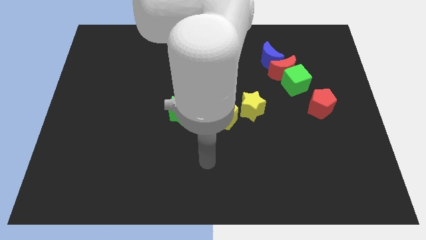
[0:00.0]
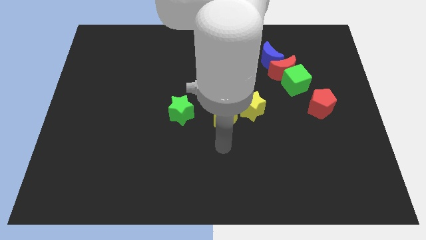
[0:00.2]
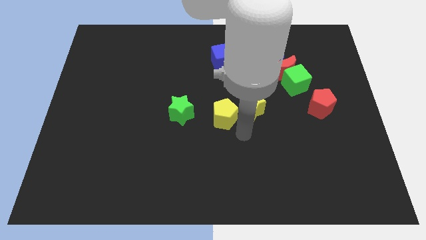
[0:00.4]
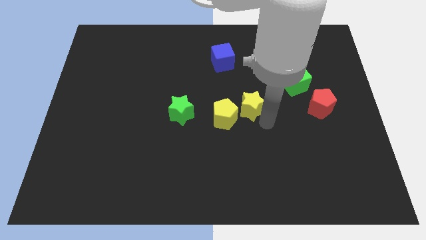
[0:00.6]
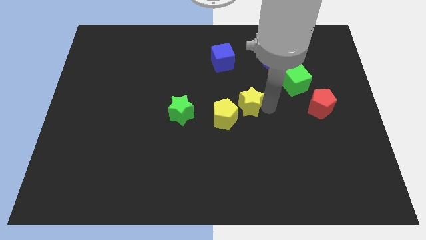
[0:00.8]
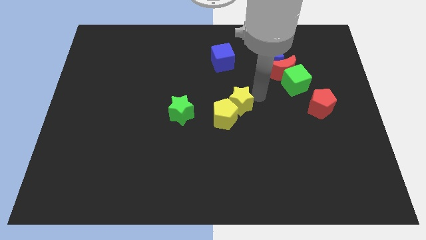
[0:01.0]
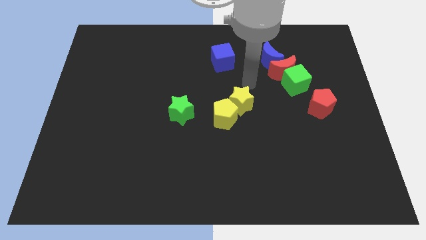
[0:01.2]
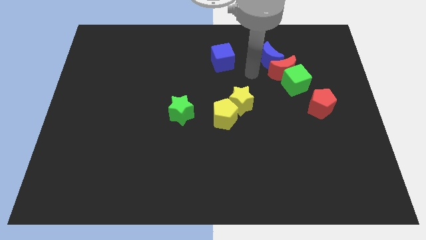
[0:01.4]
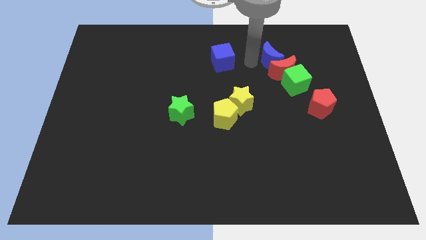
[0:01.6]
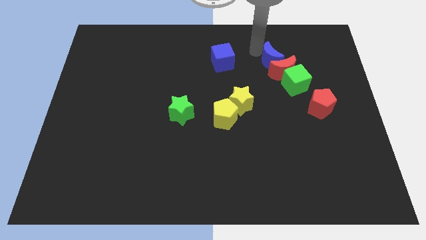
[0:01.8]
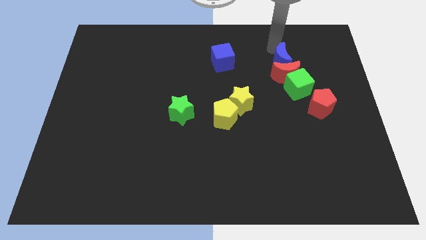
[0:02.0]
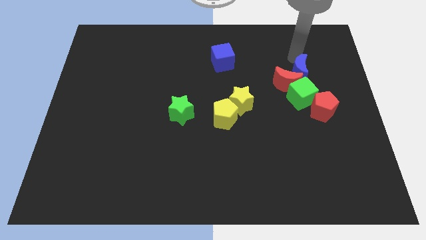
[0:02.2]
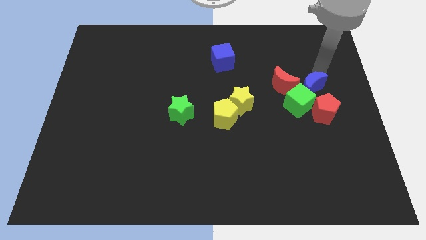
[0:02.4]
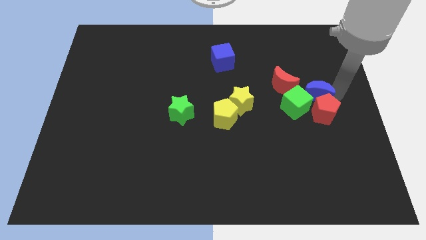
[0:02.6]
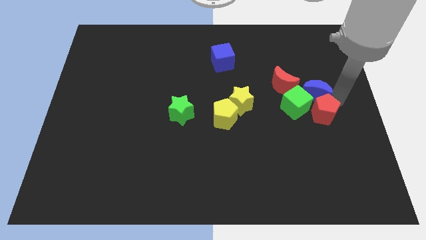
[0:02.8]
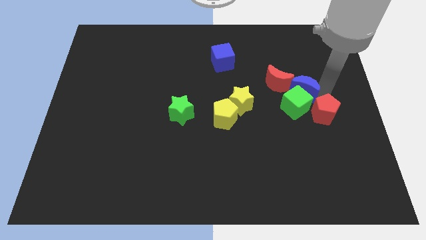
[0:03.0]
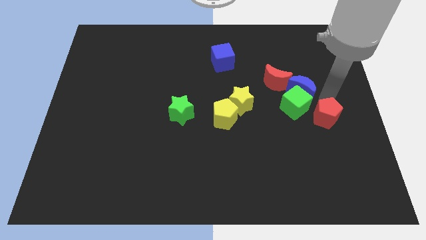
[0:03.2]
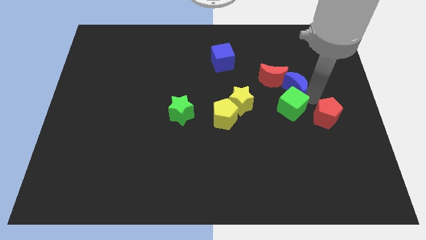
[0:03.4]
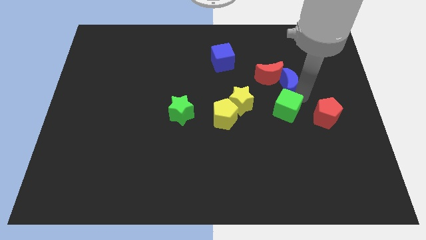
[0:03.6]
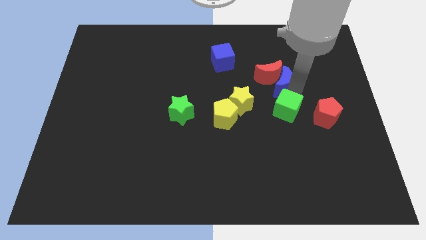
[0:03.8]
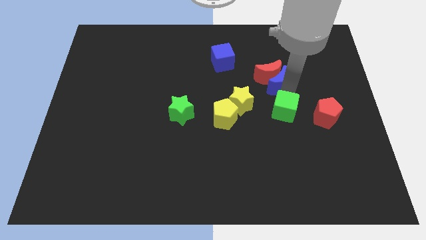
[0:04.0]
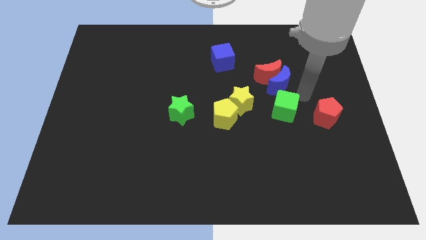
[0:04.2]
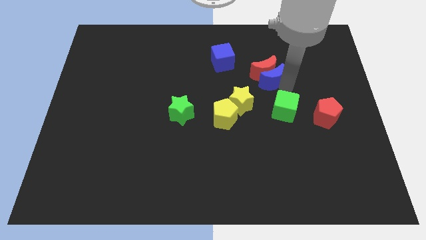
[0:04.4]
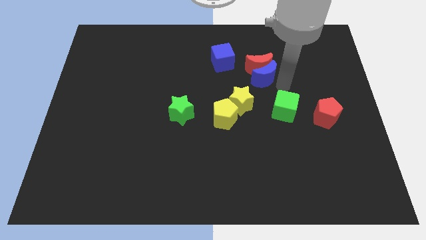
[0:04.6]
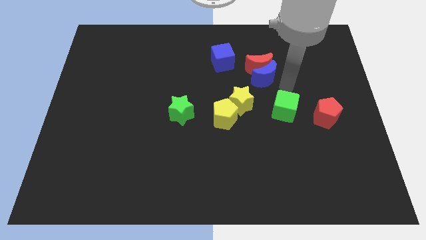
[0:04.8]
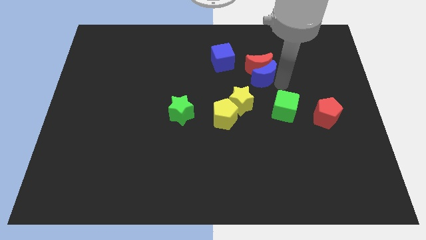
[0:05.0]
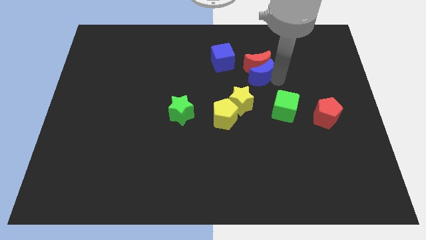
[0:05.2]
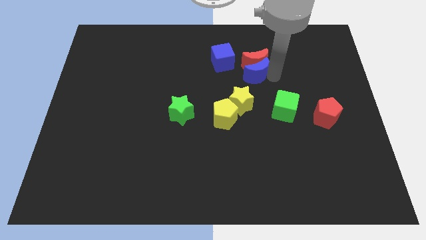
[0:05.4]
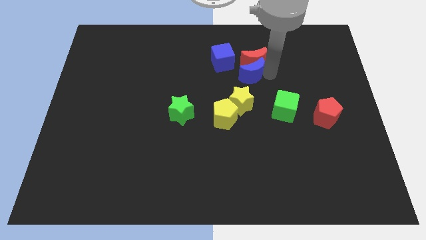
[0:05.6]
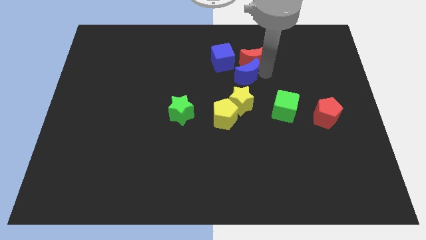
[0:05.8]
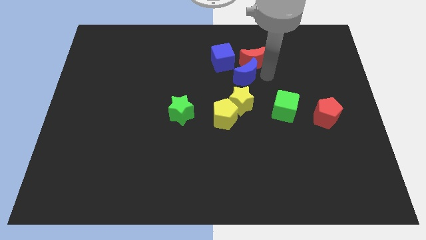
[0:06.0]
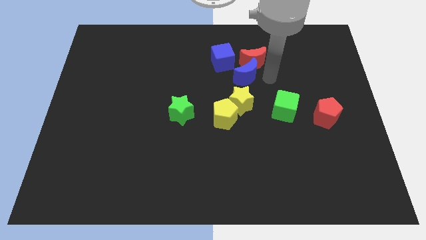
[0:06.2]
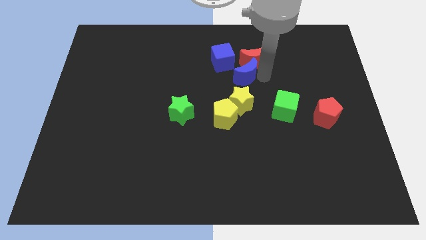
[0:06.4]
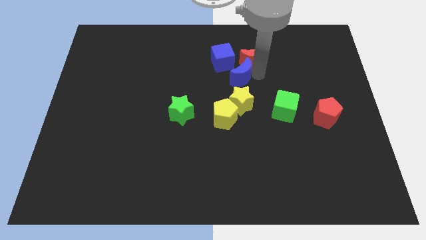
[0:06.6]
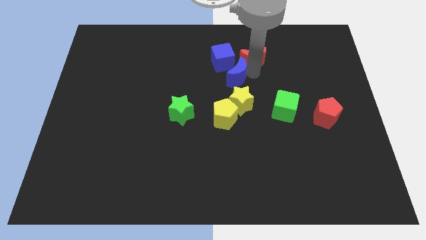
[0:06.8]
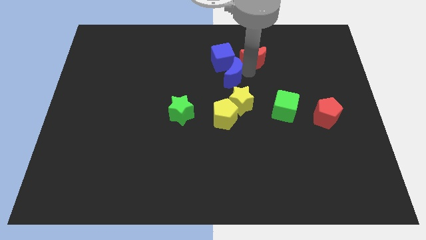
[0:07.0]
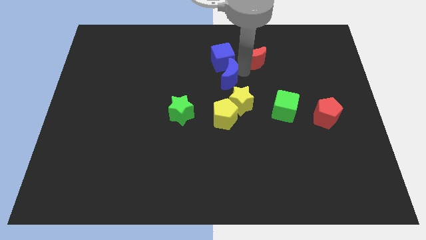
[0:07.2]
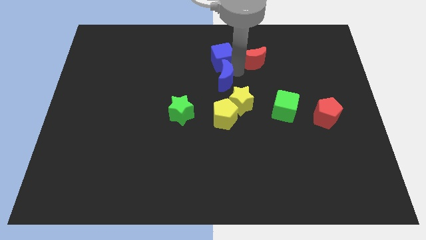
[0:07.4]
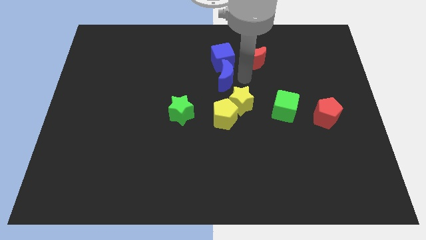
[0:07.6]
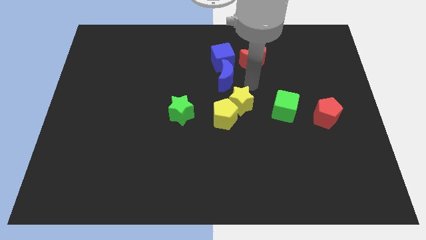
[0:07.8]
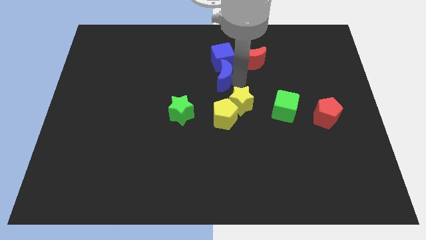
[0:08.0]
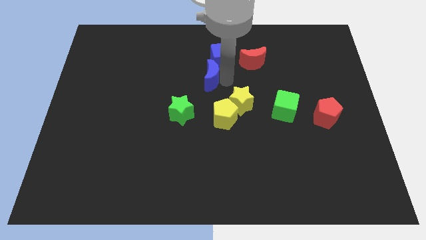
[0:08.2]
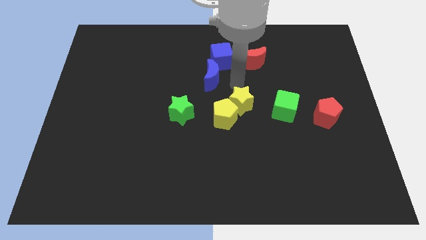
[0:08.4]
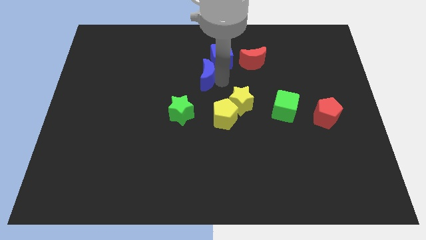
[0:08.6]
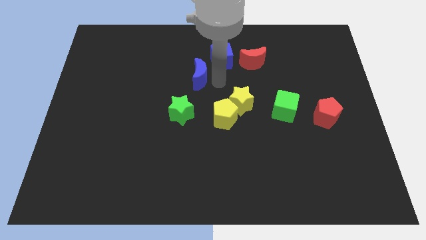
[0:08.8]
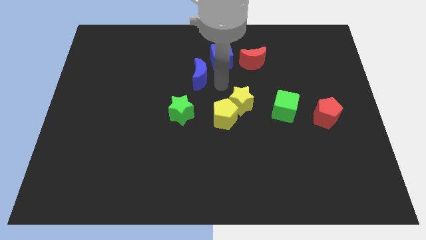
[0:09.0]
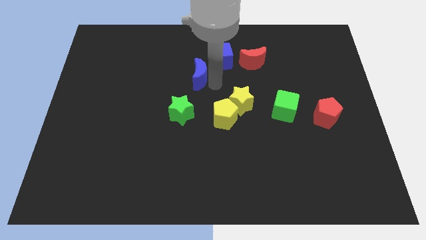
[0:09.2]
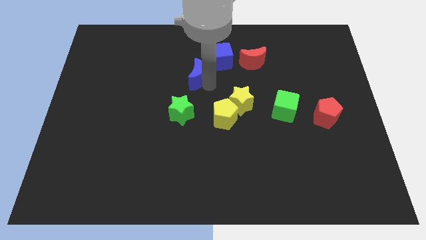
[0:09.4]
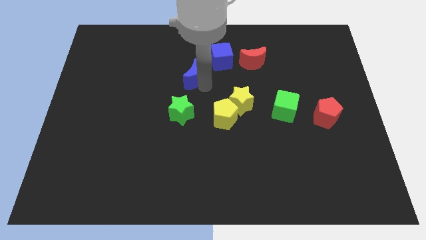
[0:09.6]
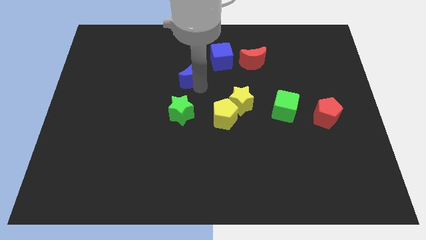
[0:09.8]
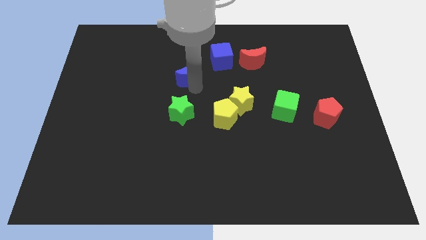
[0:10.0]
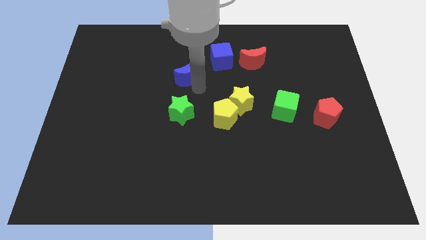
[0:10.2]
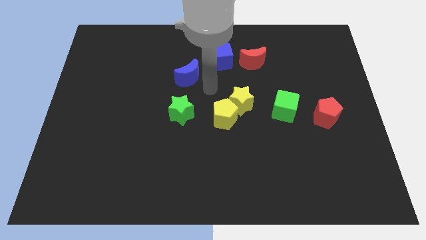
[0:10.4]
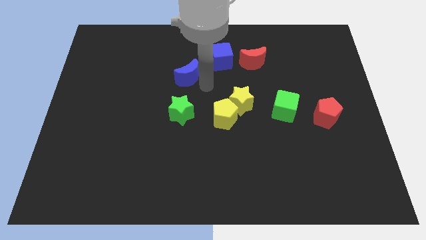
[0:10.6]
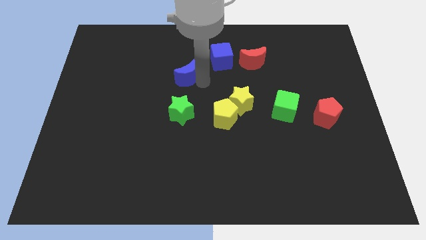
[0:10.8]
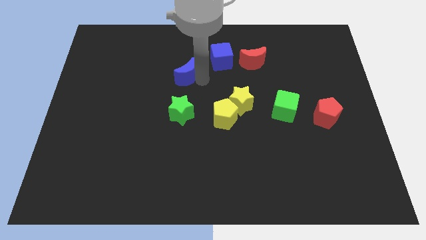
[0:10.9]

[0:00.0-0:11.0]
move the blue moon left

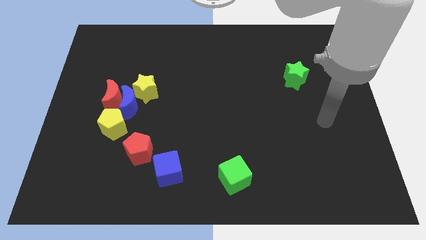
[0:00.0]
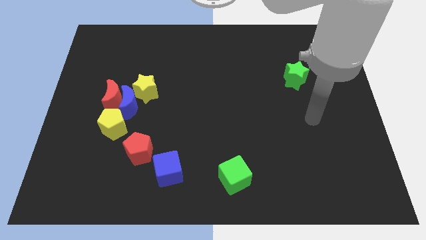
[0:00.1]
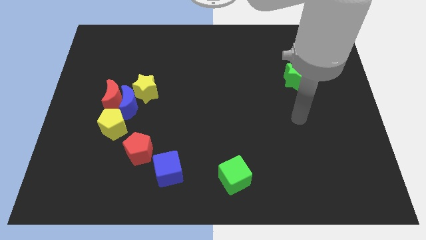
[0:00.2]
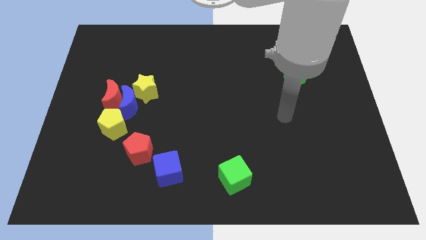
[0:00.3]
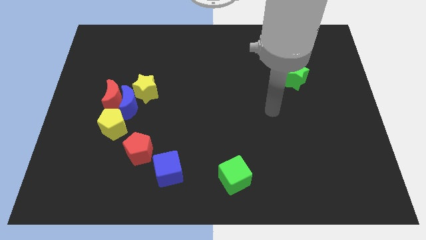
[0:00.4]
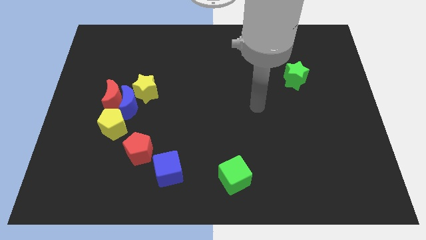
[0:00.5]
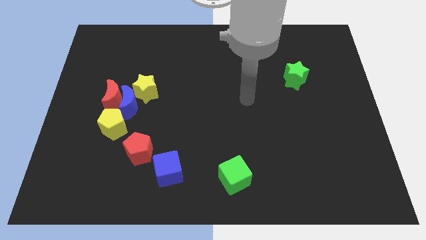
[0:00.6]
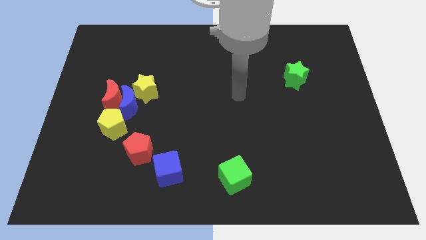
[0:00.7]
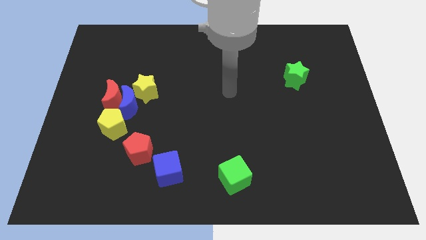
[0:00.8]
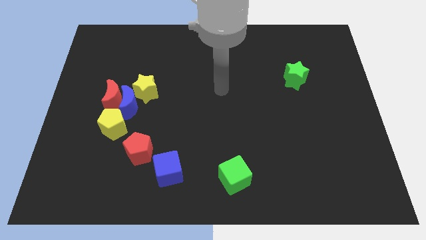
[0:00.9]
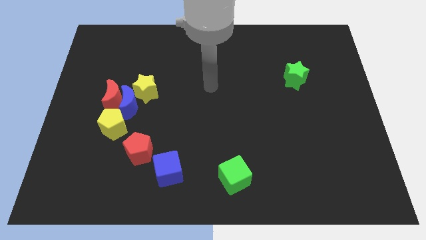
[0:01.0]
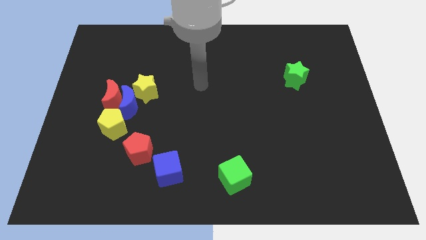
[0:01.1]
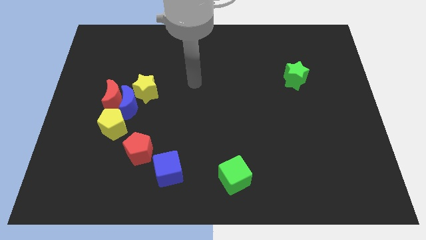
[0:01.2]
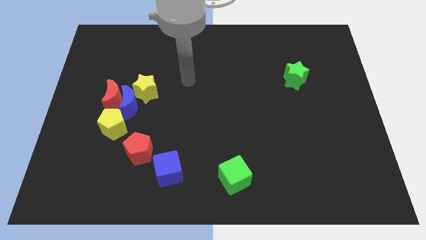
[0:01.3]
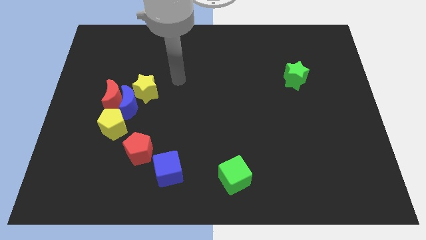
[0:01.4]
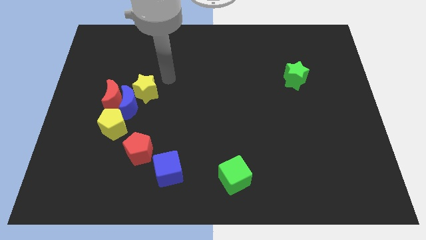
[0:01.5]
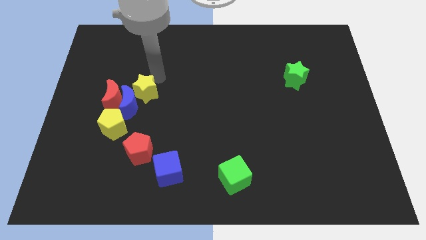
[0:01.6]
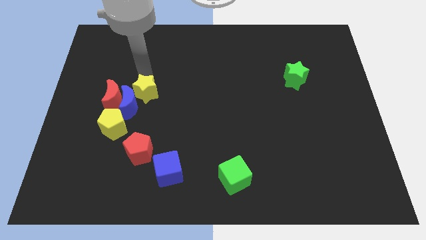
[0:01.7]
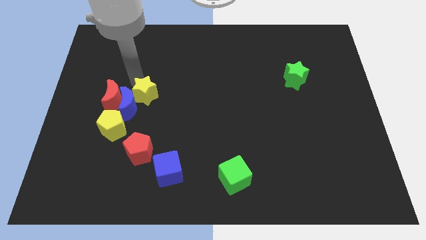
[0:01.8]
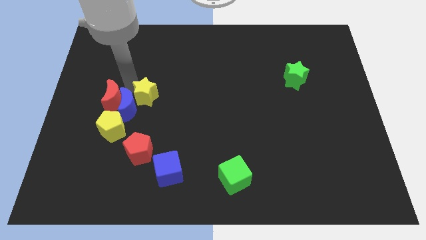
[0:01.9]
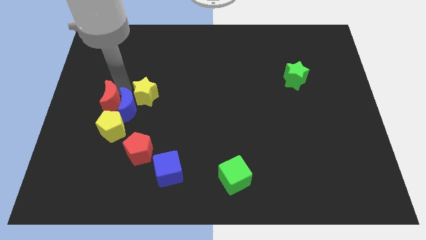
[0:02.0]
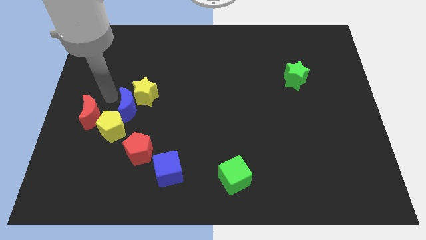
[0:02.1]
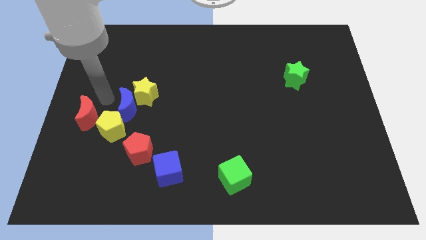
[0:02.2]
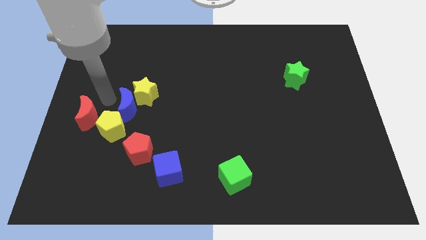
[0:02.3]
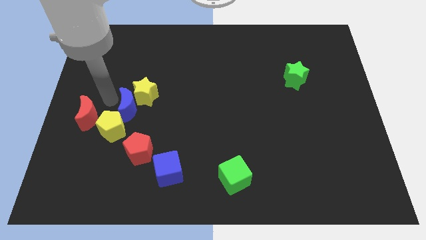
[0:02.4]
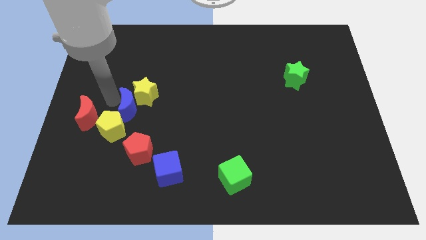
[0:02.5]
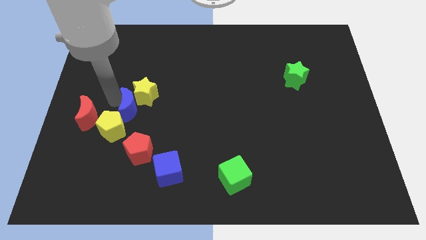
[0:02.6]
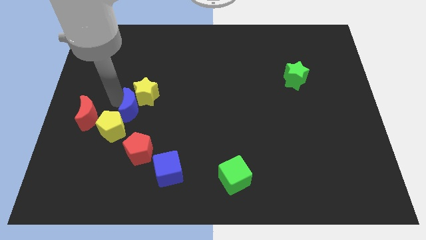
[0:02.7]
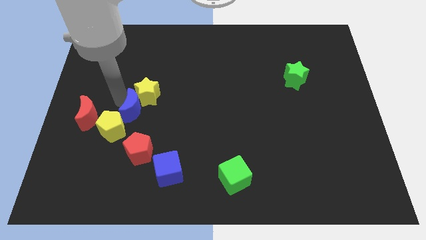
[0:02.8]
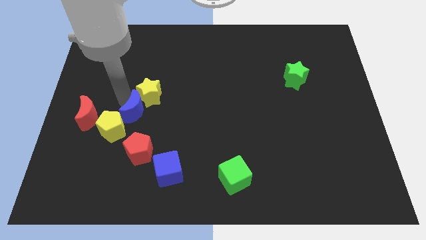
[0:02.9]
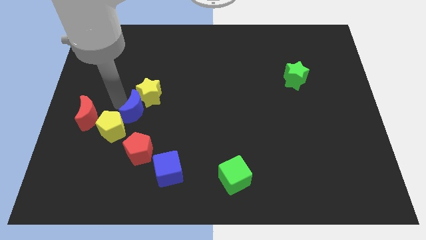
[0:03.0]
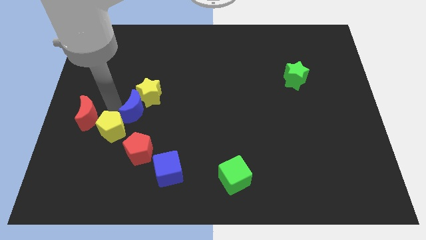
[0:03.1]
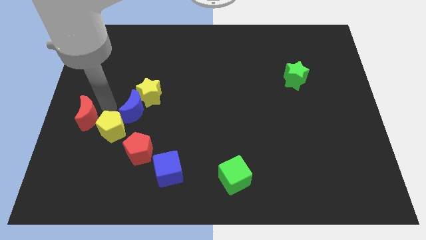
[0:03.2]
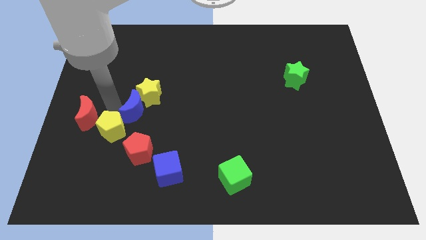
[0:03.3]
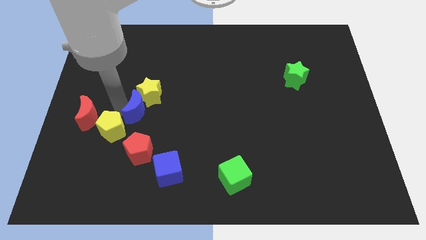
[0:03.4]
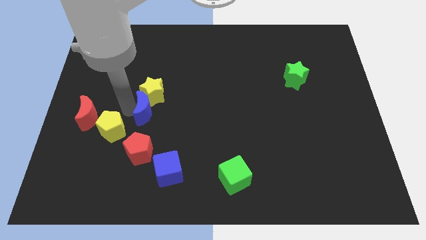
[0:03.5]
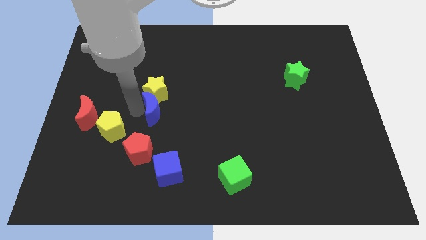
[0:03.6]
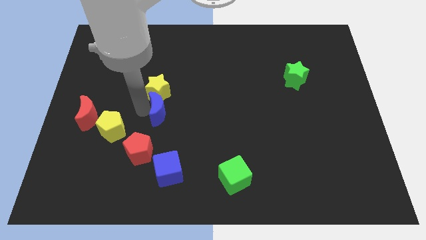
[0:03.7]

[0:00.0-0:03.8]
push the blue moon to the right somewhat
